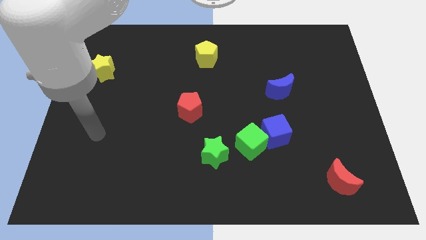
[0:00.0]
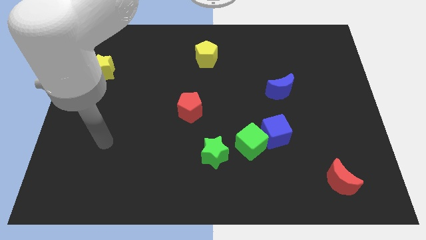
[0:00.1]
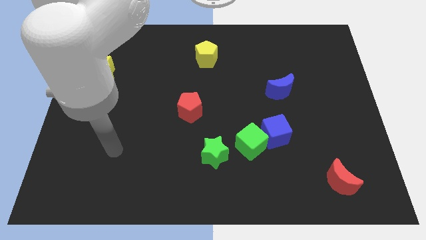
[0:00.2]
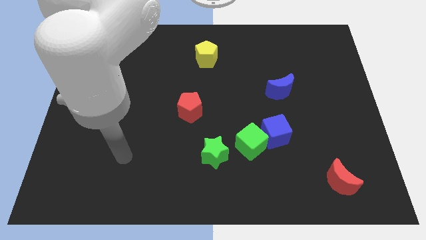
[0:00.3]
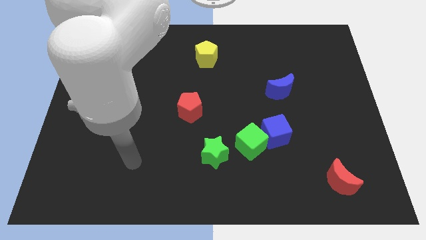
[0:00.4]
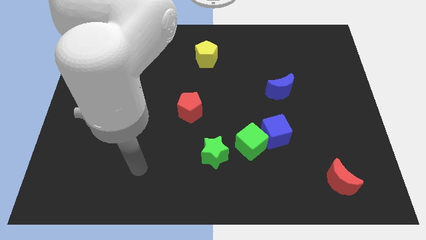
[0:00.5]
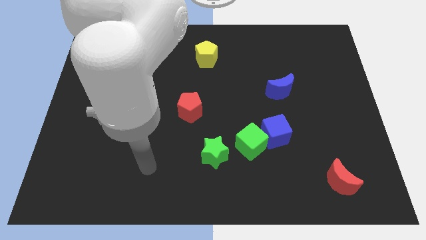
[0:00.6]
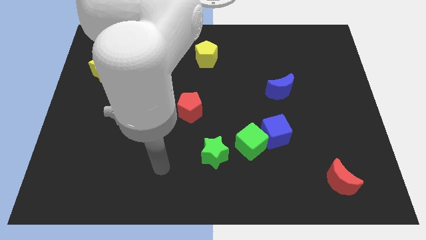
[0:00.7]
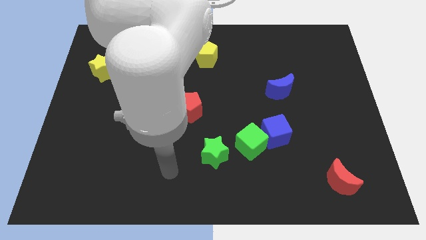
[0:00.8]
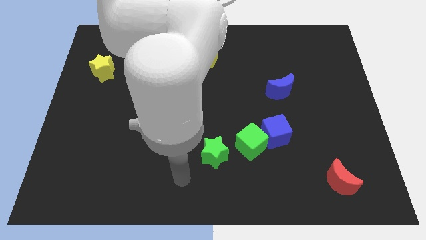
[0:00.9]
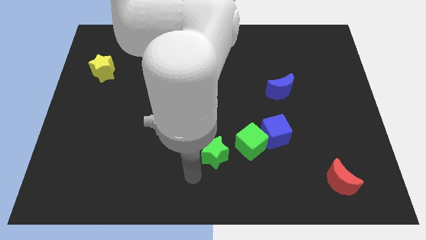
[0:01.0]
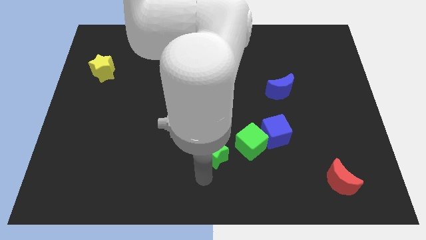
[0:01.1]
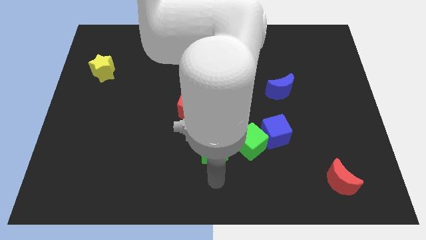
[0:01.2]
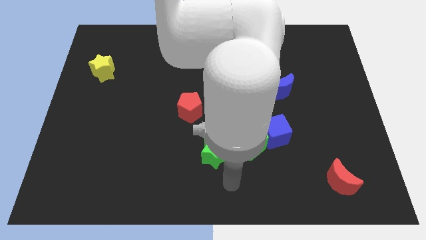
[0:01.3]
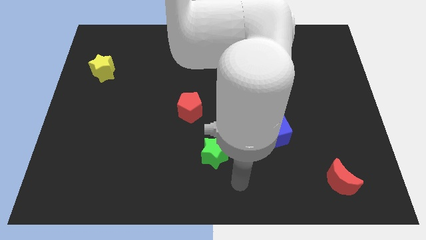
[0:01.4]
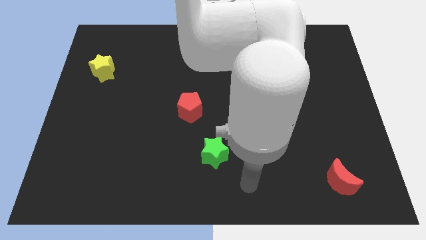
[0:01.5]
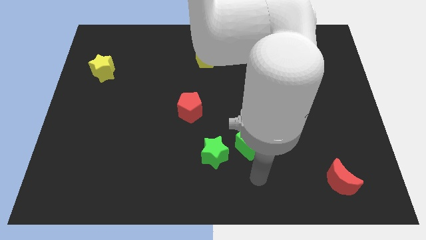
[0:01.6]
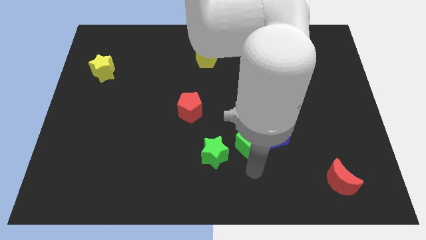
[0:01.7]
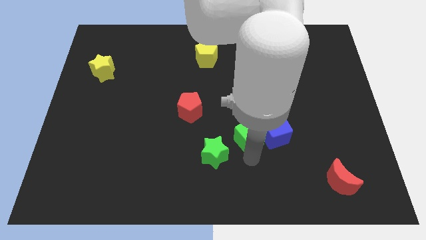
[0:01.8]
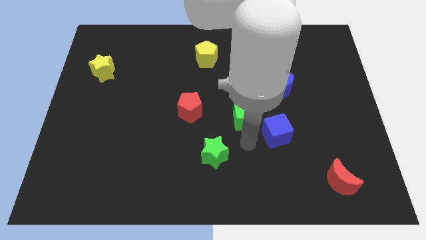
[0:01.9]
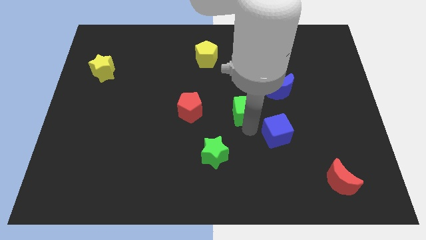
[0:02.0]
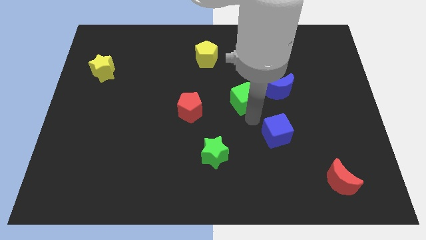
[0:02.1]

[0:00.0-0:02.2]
pull the blue cube apart from the green cube

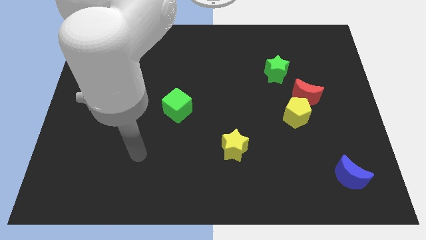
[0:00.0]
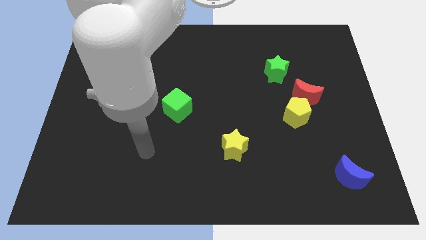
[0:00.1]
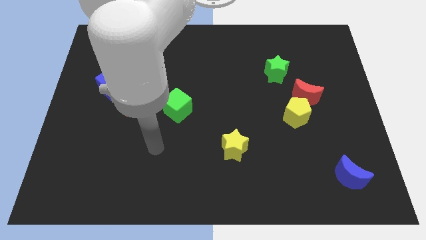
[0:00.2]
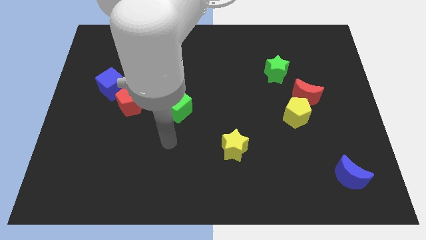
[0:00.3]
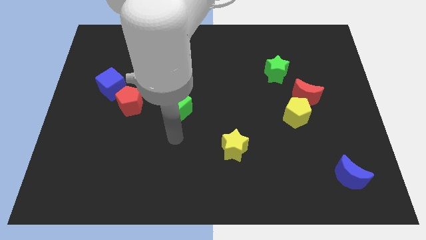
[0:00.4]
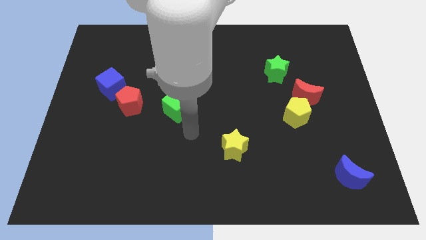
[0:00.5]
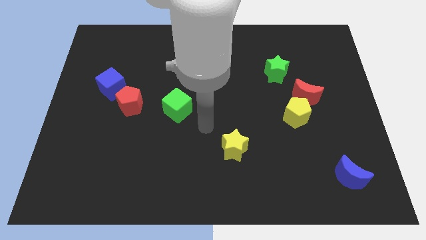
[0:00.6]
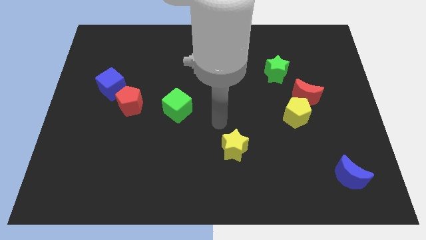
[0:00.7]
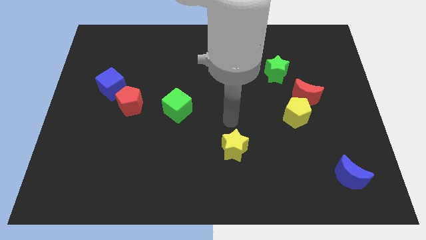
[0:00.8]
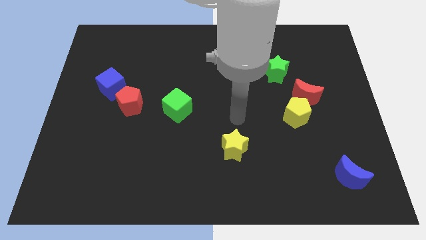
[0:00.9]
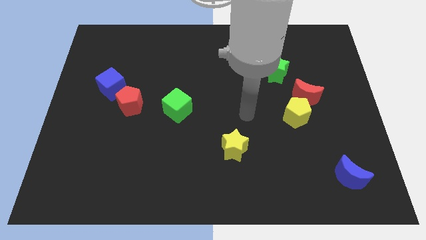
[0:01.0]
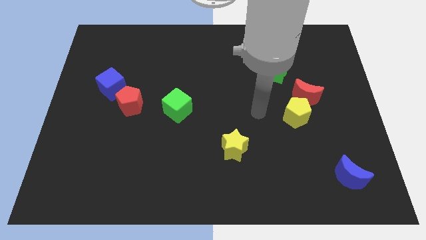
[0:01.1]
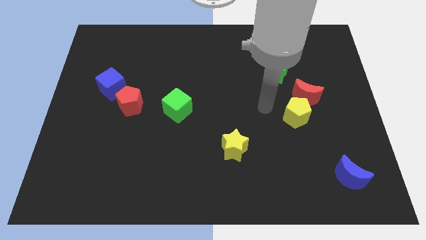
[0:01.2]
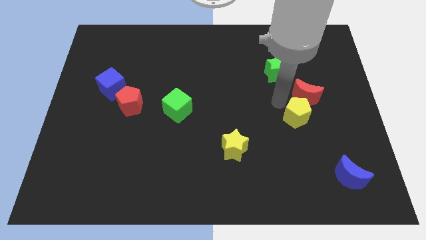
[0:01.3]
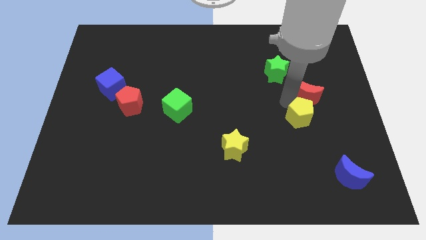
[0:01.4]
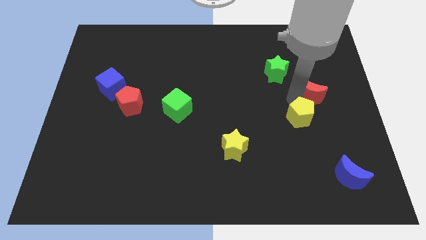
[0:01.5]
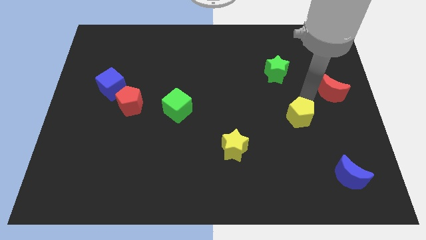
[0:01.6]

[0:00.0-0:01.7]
move the yellow pentagon away from the red moon

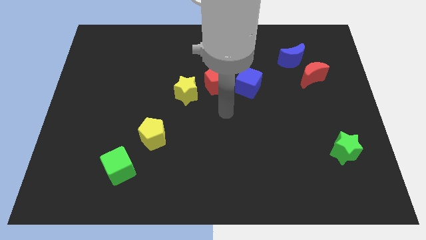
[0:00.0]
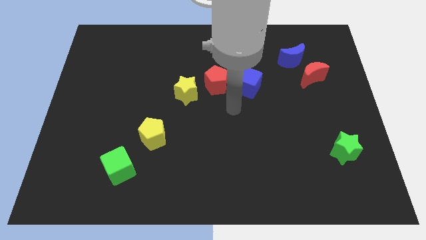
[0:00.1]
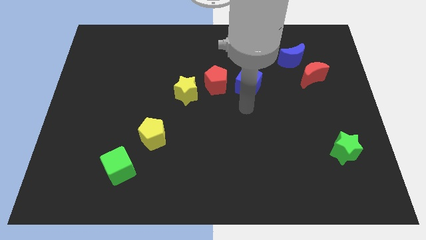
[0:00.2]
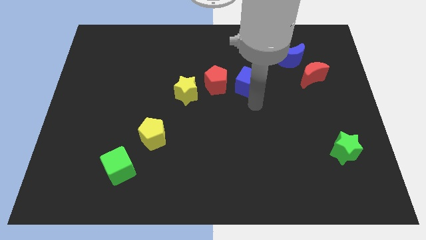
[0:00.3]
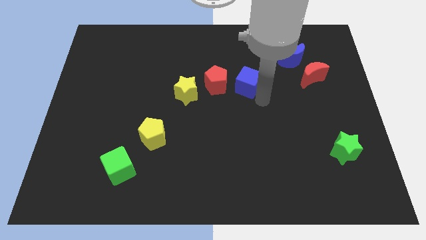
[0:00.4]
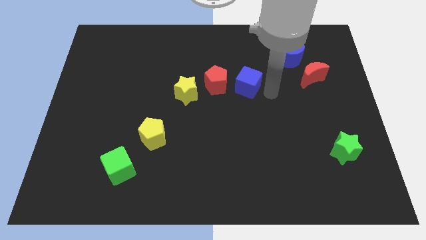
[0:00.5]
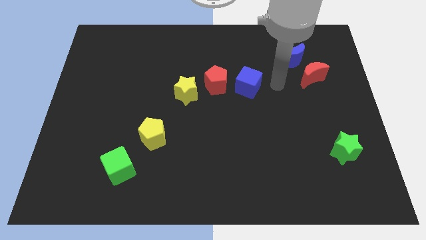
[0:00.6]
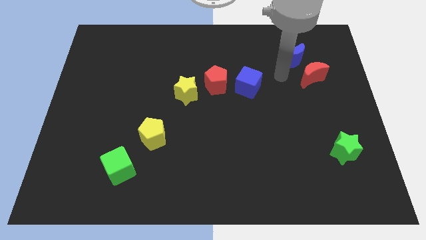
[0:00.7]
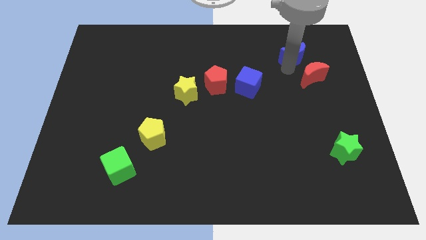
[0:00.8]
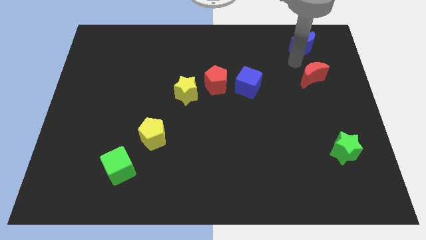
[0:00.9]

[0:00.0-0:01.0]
move the red moon away from the blue moon

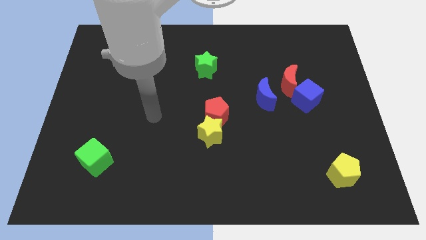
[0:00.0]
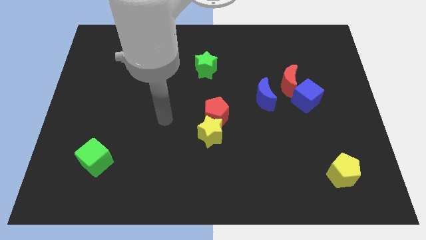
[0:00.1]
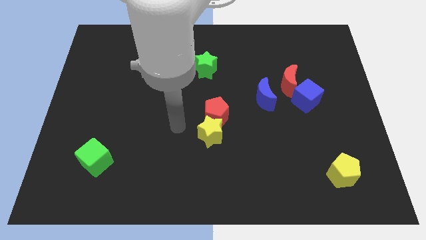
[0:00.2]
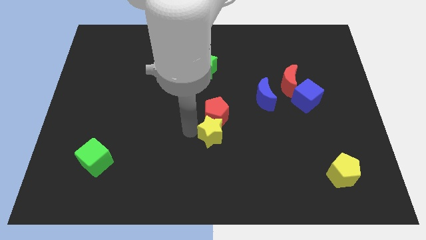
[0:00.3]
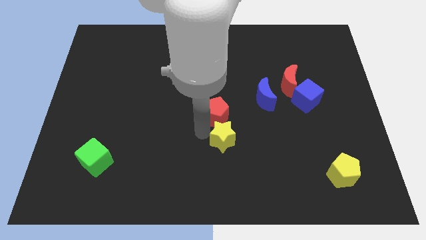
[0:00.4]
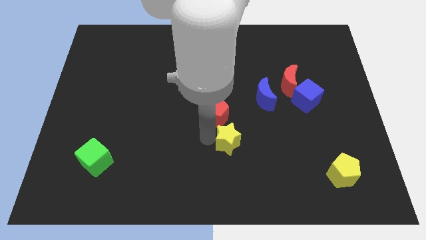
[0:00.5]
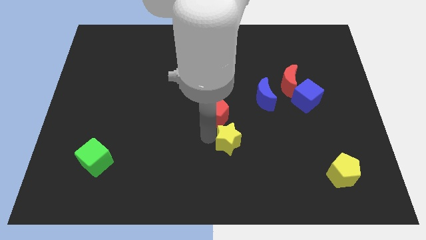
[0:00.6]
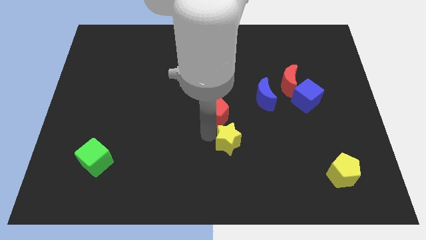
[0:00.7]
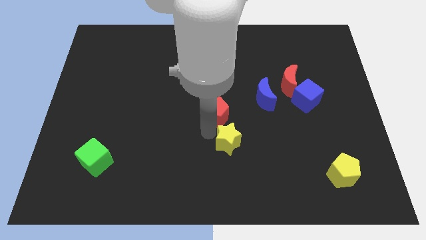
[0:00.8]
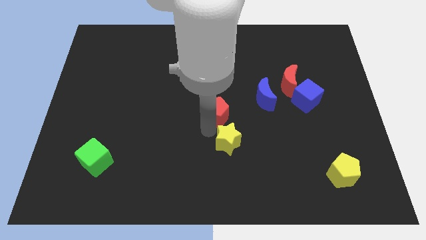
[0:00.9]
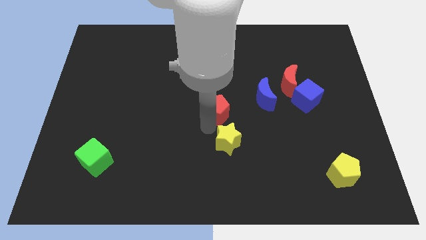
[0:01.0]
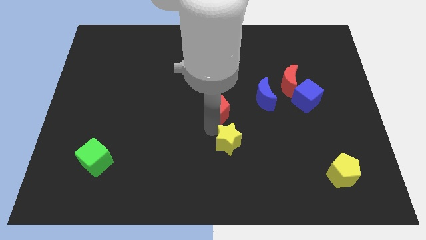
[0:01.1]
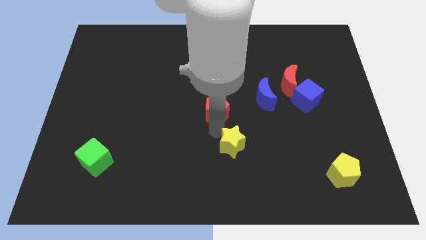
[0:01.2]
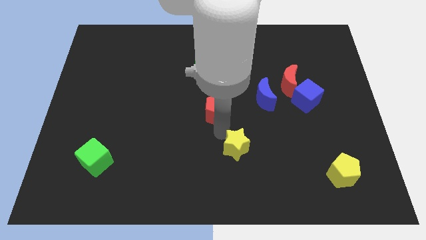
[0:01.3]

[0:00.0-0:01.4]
pull the red pentagon apart from the yellow star

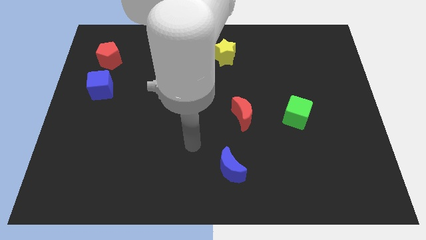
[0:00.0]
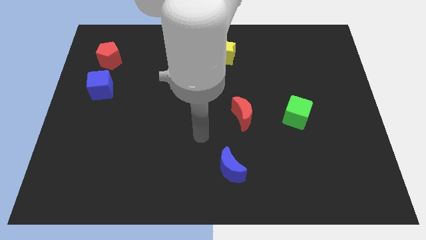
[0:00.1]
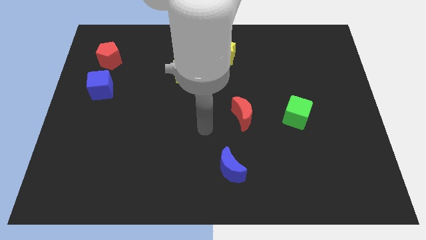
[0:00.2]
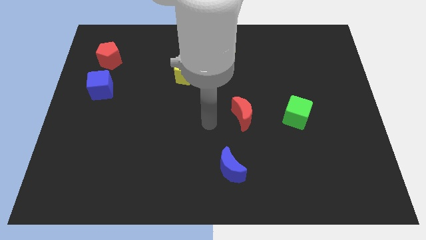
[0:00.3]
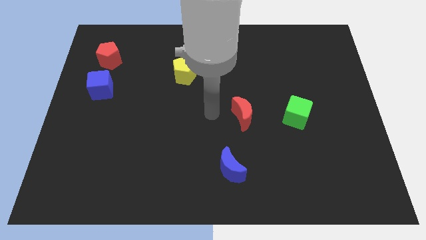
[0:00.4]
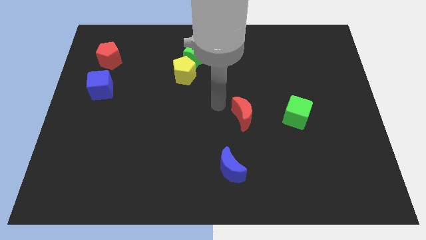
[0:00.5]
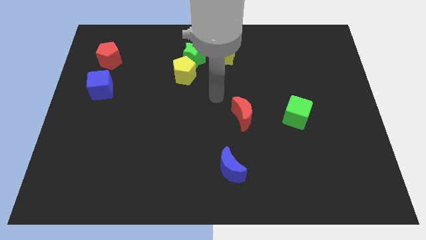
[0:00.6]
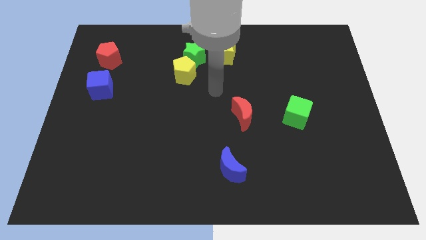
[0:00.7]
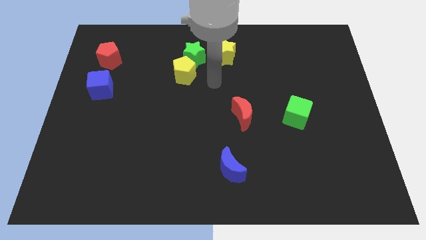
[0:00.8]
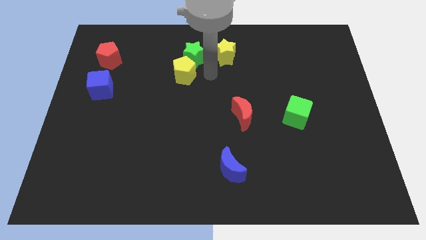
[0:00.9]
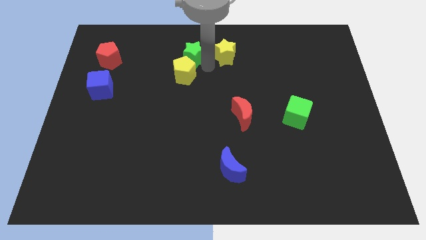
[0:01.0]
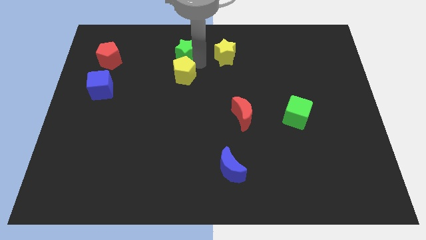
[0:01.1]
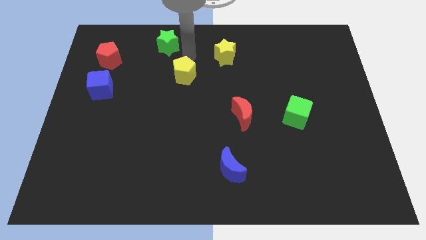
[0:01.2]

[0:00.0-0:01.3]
move the yellow pentagon away from the green star

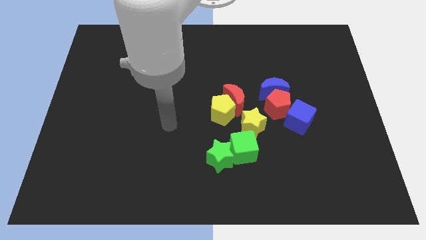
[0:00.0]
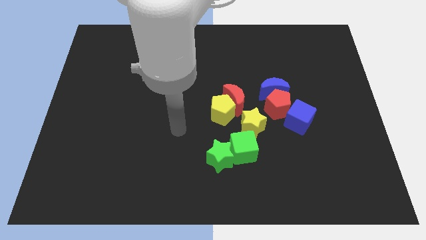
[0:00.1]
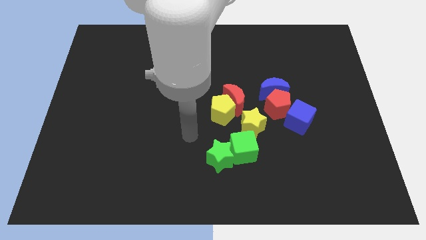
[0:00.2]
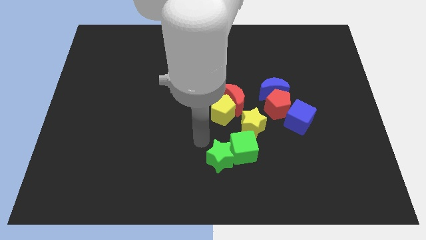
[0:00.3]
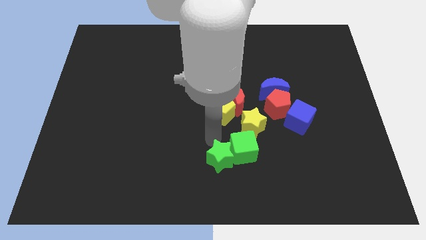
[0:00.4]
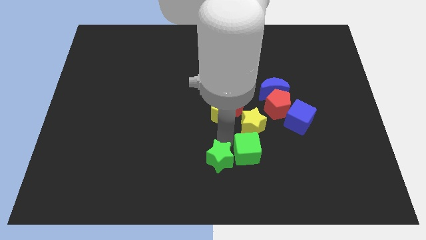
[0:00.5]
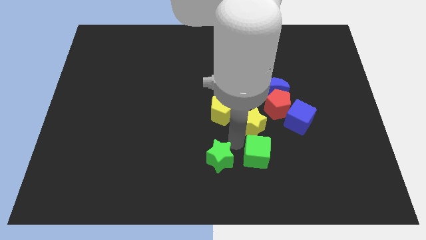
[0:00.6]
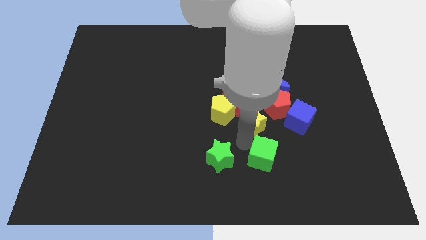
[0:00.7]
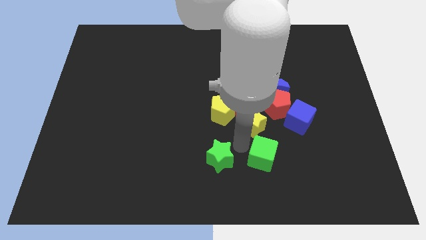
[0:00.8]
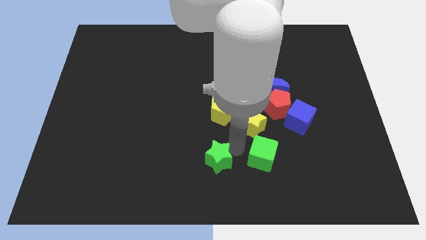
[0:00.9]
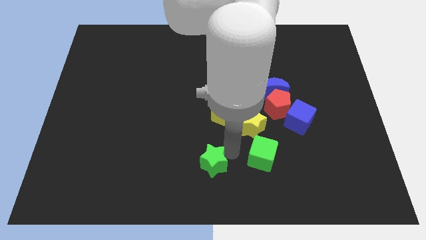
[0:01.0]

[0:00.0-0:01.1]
pull the green star apart from the green cube

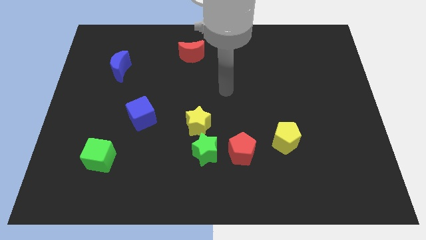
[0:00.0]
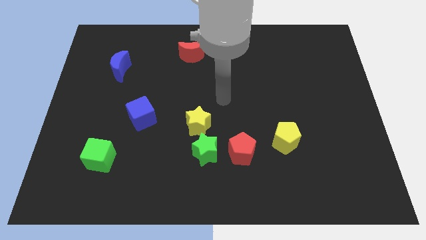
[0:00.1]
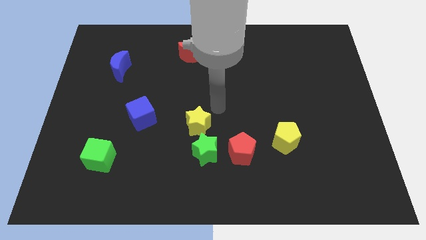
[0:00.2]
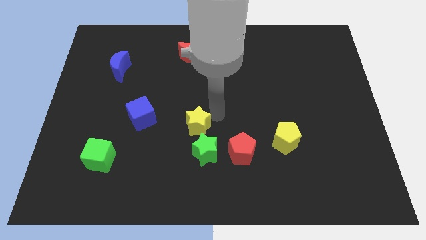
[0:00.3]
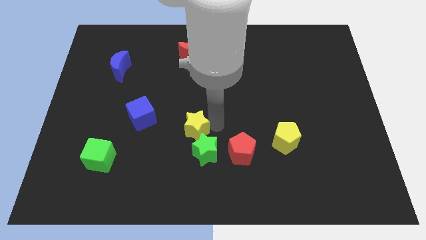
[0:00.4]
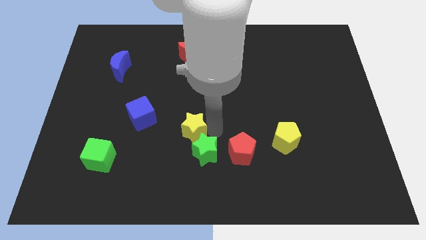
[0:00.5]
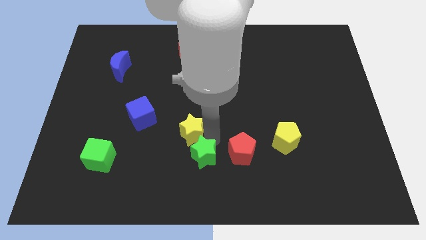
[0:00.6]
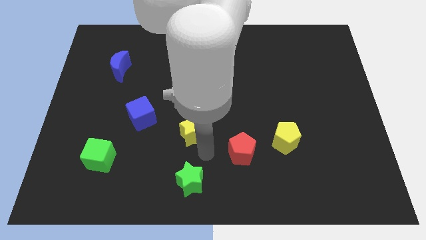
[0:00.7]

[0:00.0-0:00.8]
separate the yellow star from the green star
